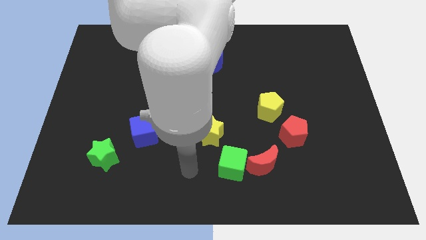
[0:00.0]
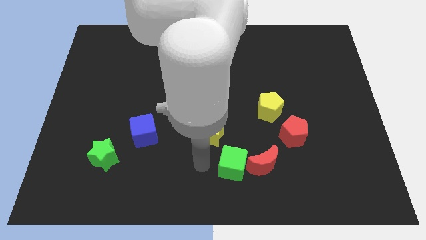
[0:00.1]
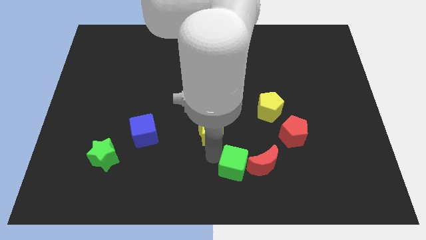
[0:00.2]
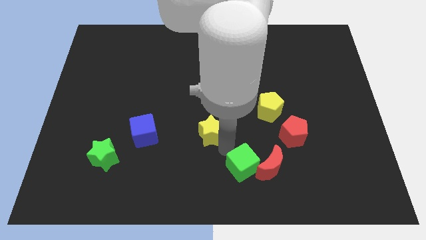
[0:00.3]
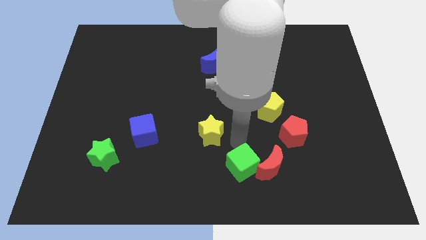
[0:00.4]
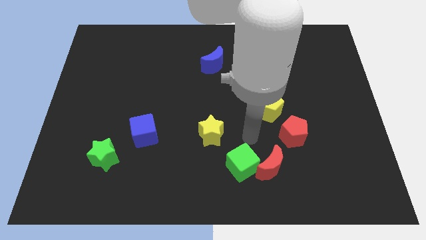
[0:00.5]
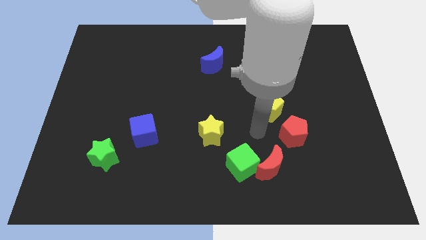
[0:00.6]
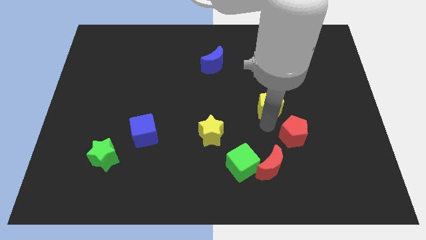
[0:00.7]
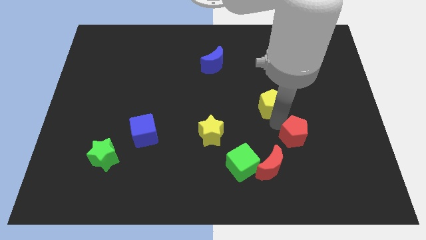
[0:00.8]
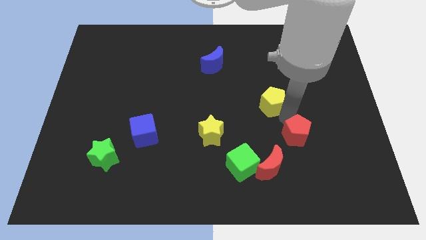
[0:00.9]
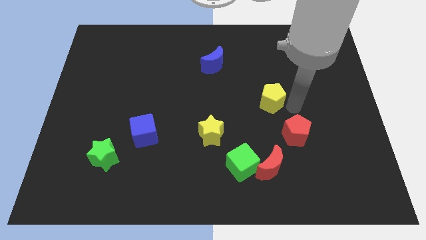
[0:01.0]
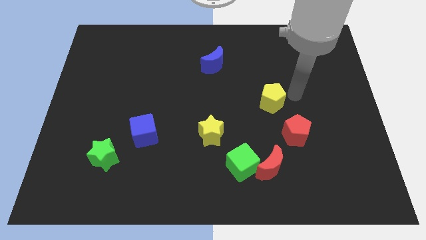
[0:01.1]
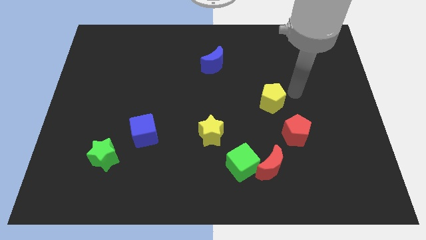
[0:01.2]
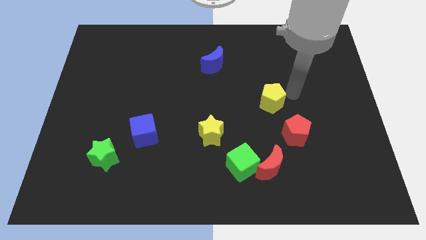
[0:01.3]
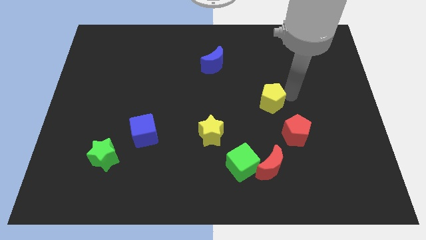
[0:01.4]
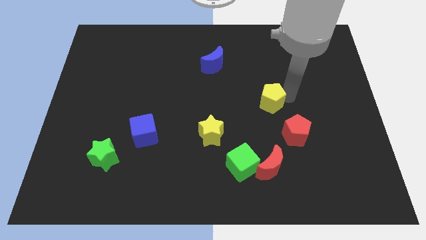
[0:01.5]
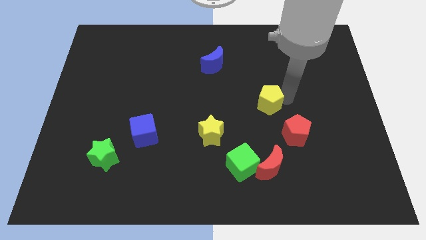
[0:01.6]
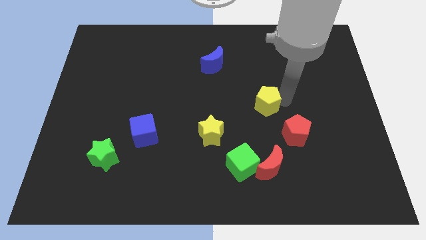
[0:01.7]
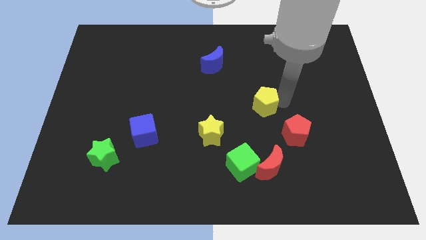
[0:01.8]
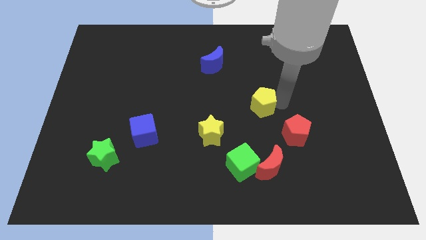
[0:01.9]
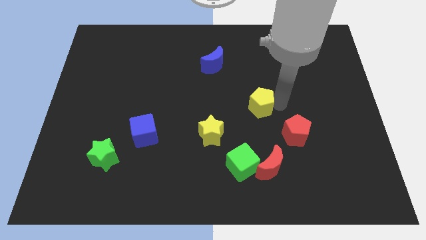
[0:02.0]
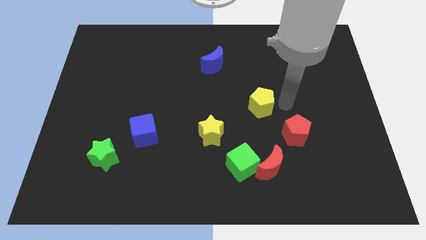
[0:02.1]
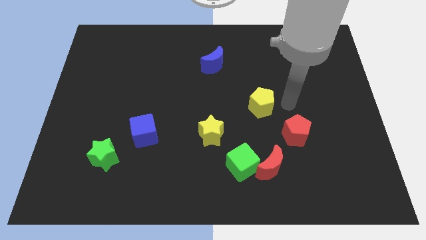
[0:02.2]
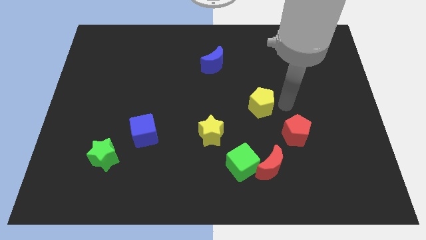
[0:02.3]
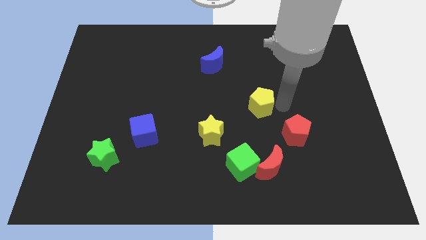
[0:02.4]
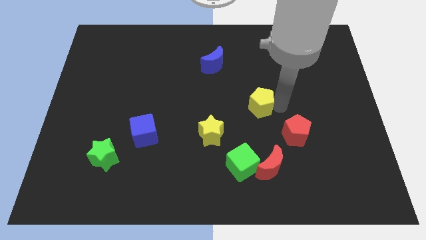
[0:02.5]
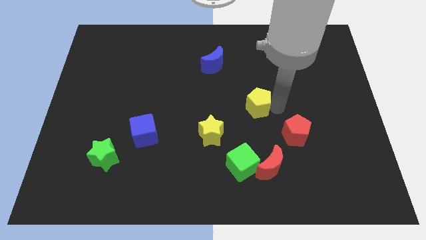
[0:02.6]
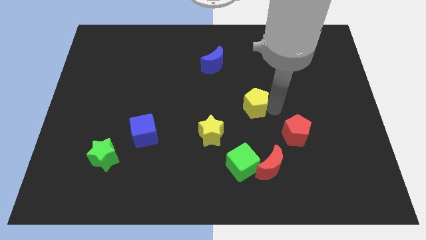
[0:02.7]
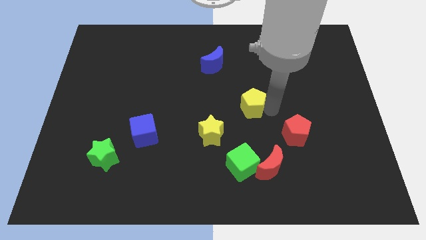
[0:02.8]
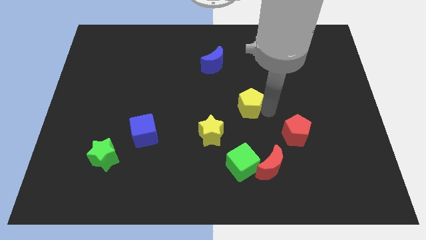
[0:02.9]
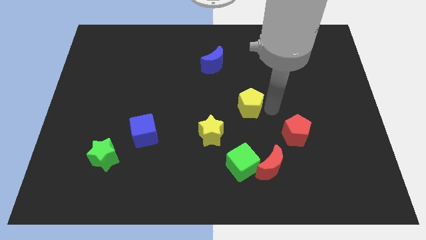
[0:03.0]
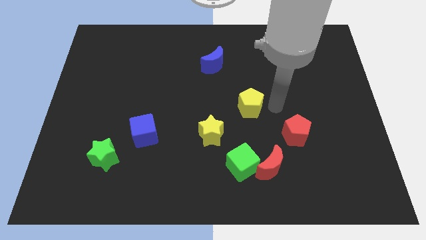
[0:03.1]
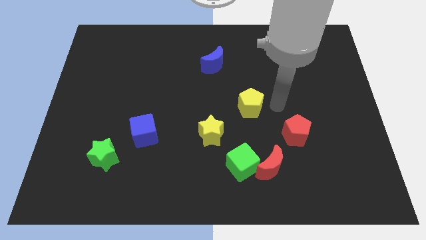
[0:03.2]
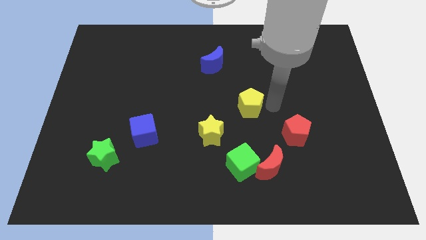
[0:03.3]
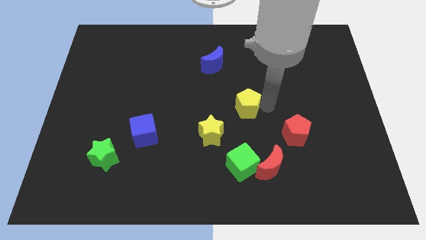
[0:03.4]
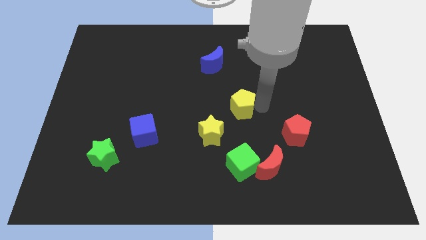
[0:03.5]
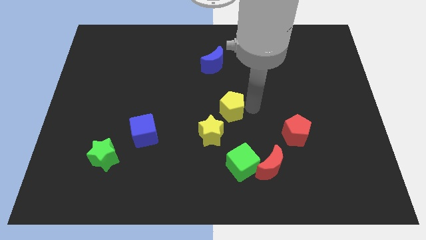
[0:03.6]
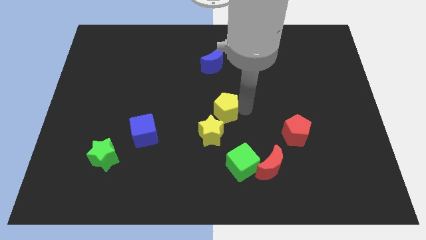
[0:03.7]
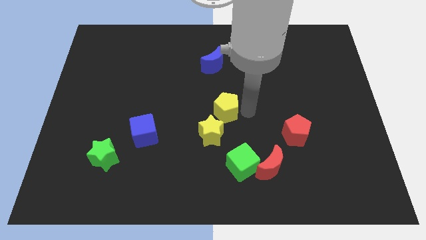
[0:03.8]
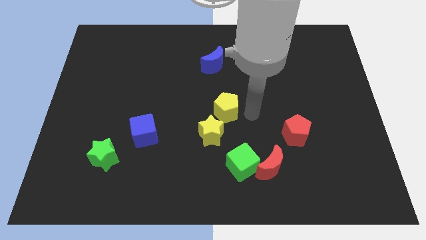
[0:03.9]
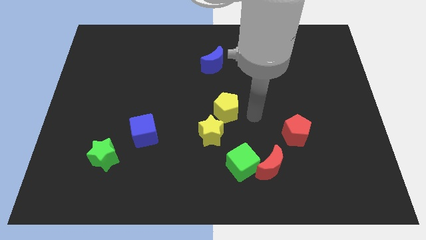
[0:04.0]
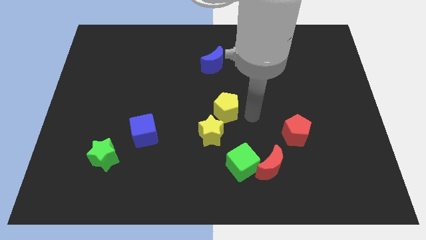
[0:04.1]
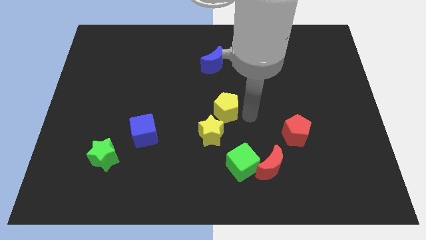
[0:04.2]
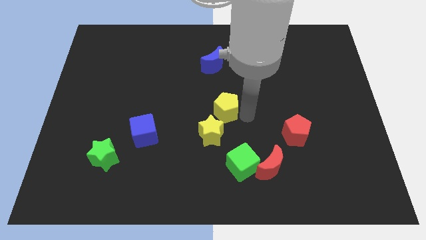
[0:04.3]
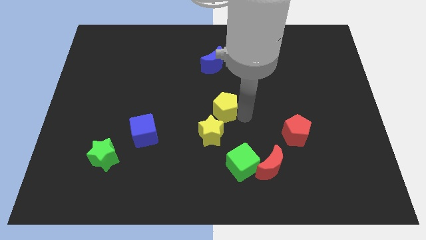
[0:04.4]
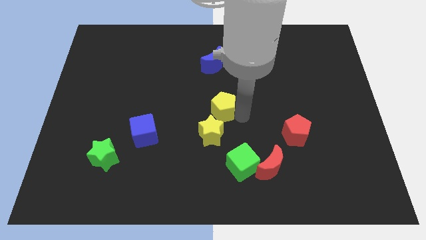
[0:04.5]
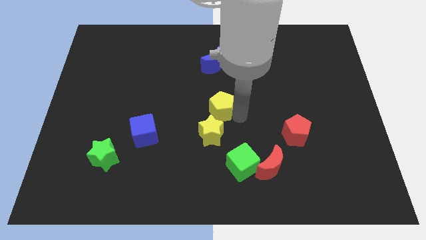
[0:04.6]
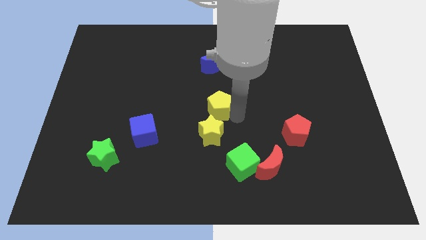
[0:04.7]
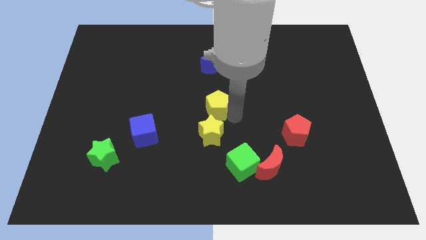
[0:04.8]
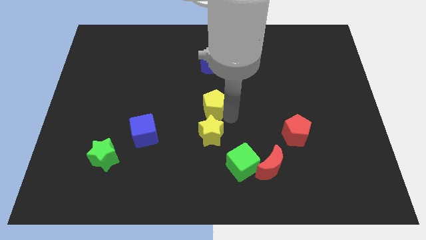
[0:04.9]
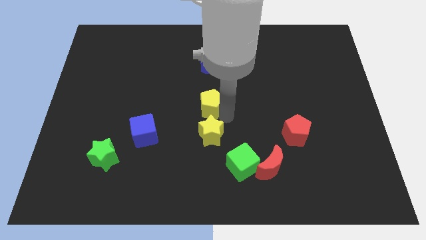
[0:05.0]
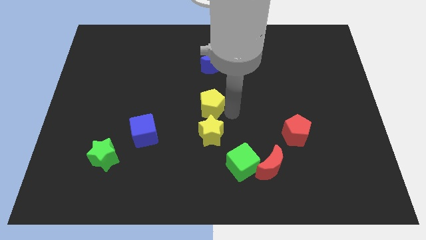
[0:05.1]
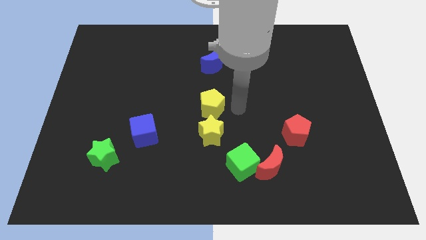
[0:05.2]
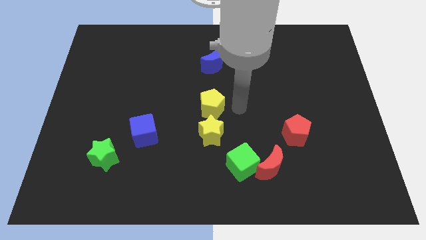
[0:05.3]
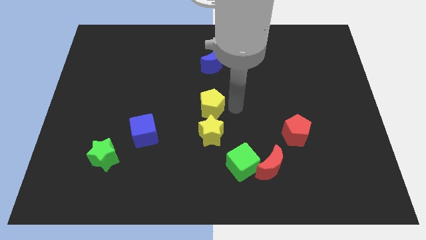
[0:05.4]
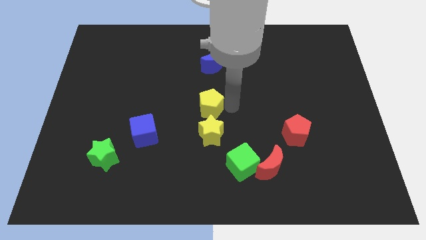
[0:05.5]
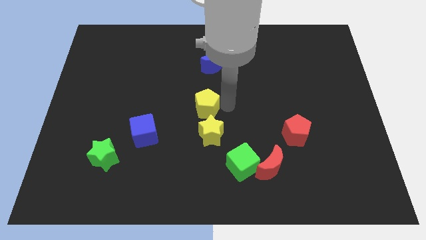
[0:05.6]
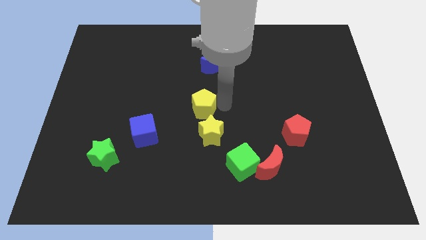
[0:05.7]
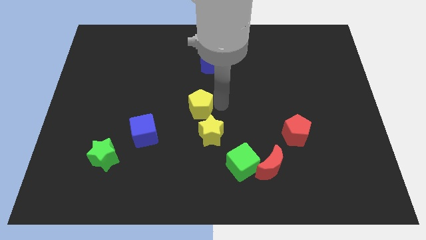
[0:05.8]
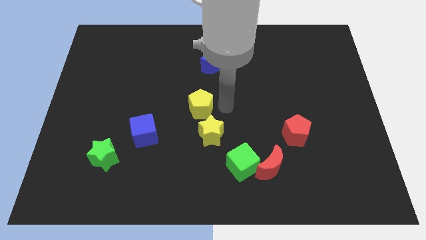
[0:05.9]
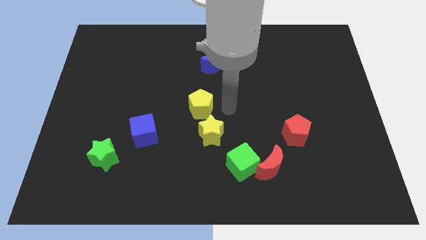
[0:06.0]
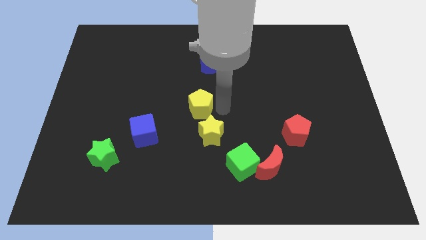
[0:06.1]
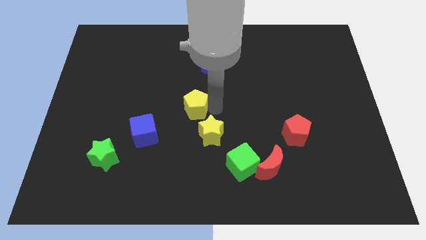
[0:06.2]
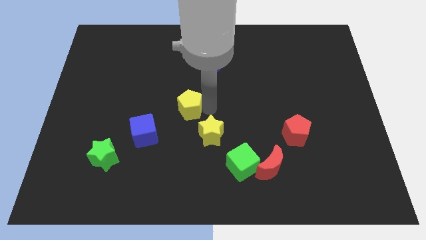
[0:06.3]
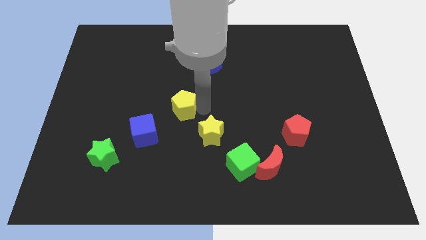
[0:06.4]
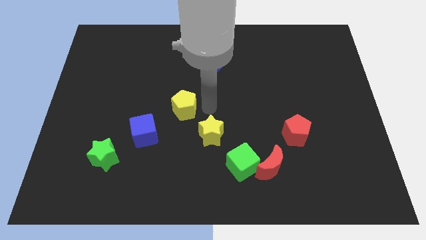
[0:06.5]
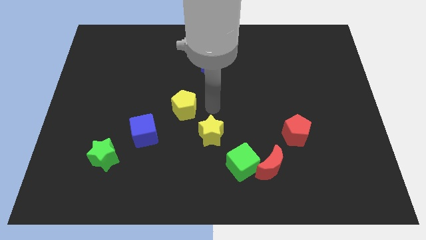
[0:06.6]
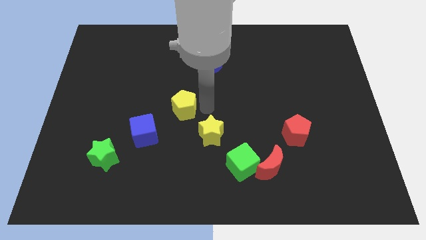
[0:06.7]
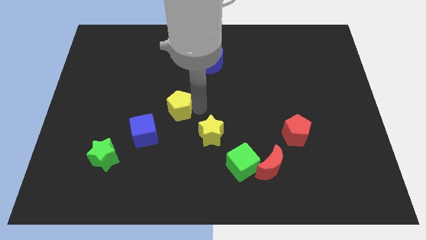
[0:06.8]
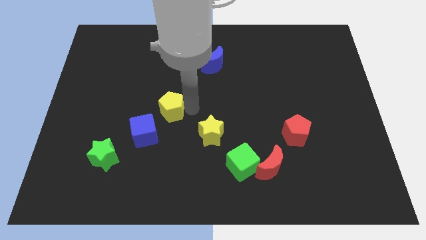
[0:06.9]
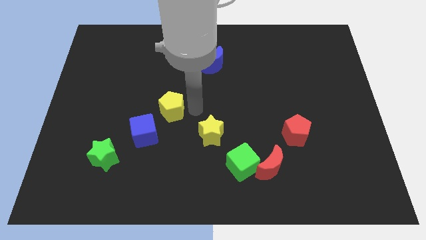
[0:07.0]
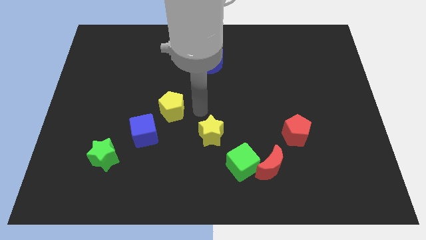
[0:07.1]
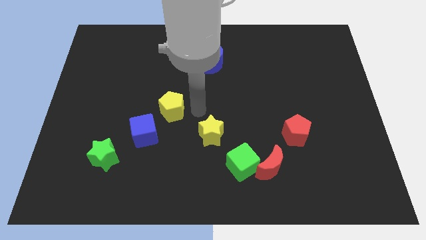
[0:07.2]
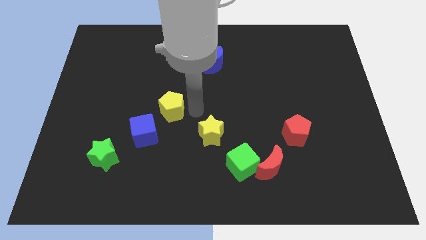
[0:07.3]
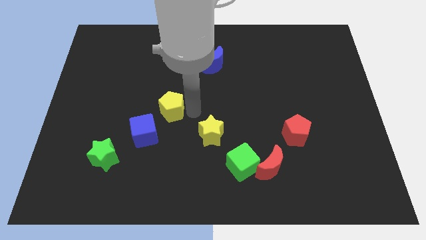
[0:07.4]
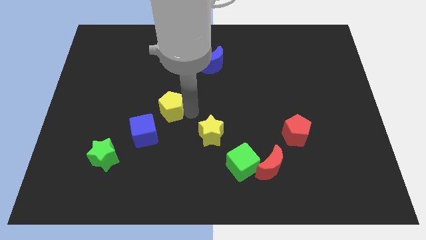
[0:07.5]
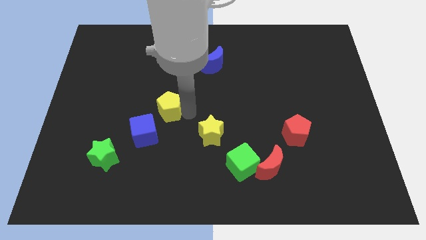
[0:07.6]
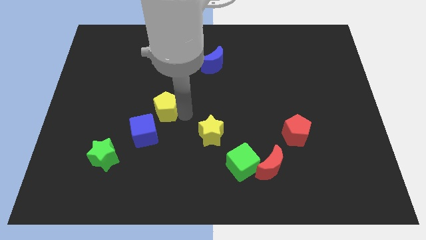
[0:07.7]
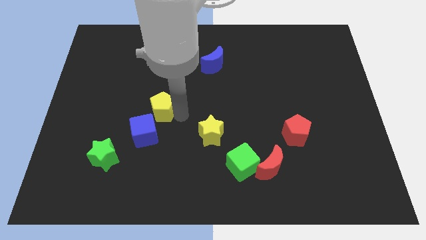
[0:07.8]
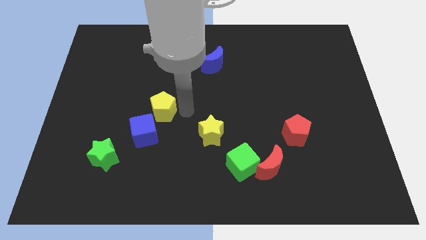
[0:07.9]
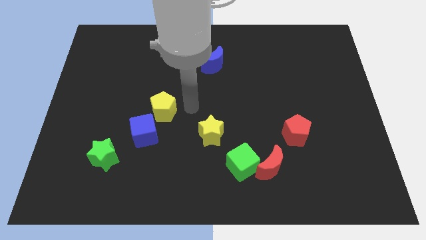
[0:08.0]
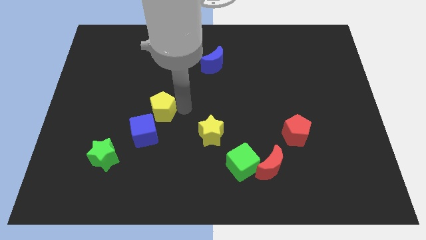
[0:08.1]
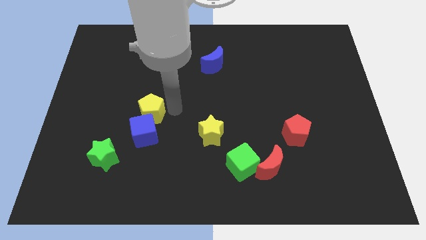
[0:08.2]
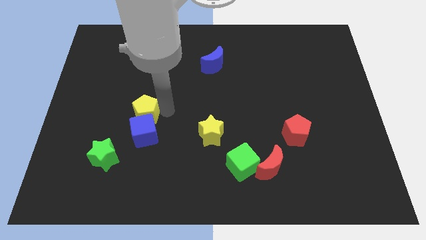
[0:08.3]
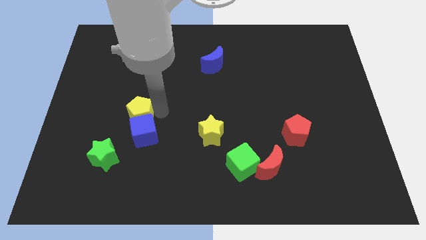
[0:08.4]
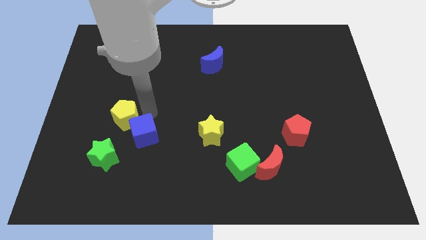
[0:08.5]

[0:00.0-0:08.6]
put the yellow pentagon to the left of the blue cube
